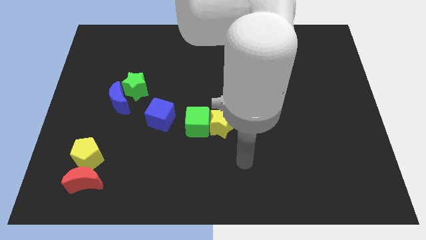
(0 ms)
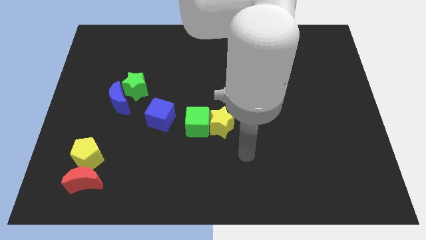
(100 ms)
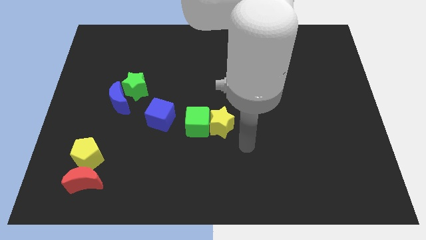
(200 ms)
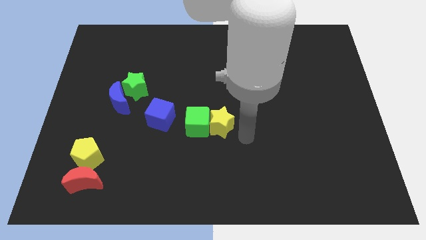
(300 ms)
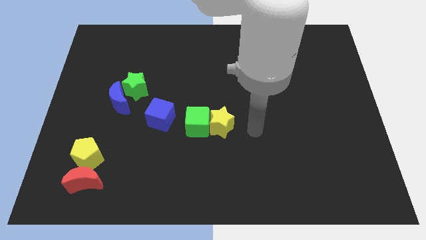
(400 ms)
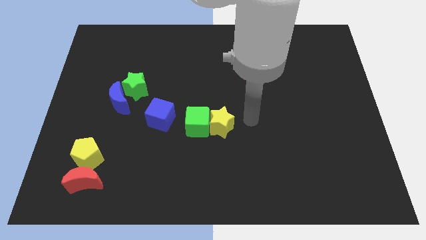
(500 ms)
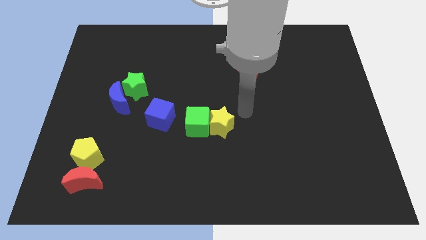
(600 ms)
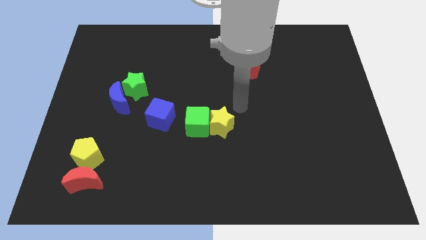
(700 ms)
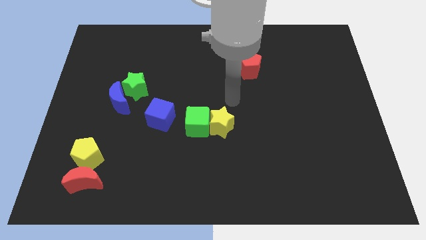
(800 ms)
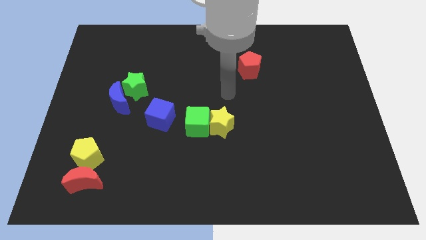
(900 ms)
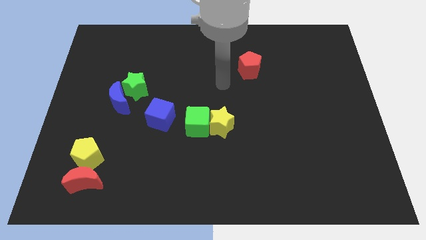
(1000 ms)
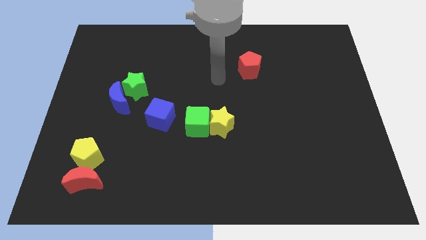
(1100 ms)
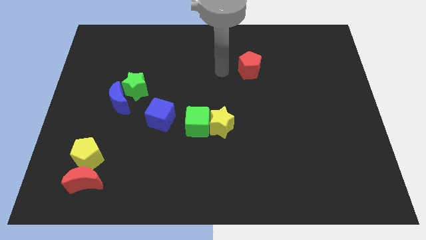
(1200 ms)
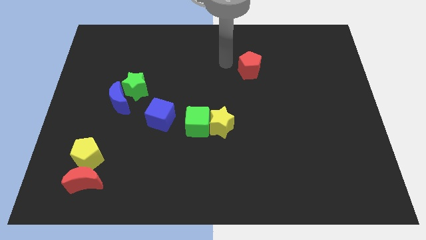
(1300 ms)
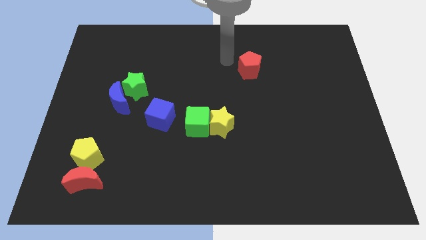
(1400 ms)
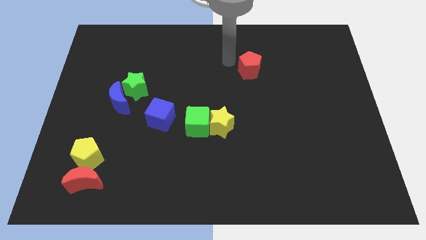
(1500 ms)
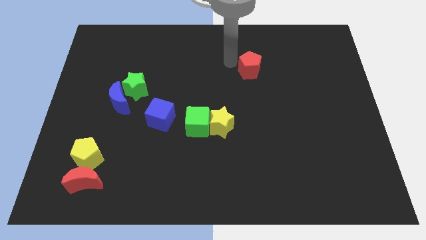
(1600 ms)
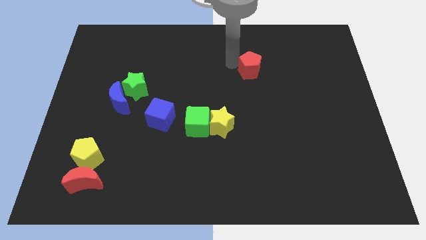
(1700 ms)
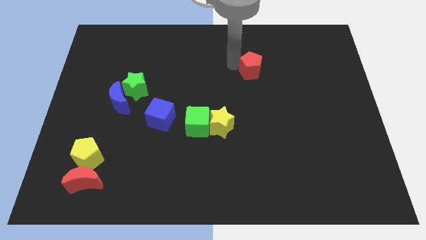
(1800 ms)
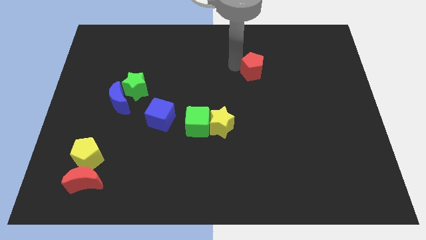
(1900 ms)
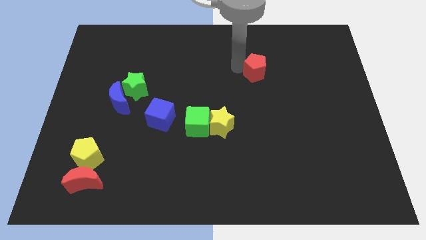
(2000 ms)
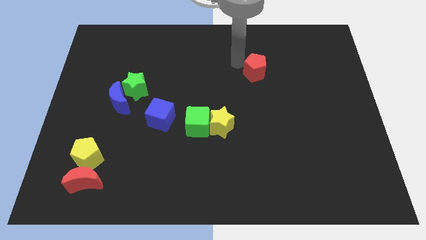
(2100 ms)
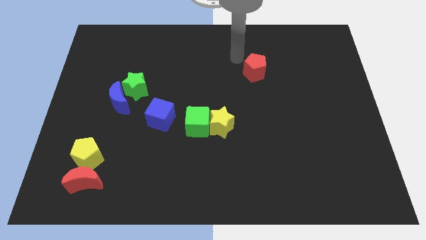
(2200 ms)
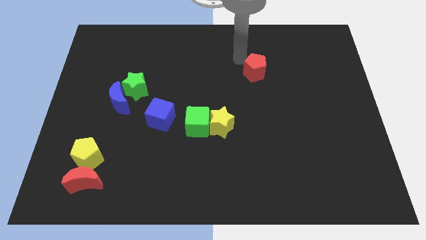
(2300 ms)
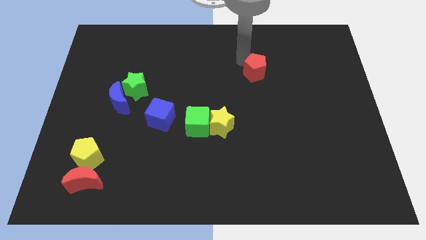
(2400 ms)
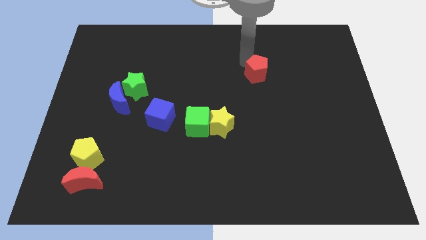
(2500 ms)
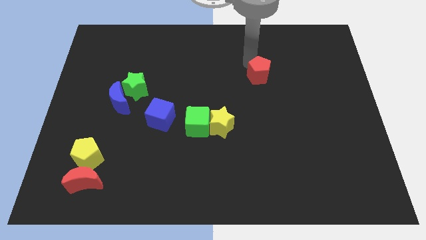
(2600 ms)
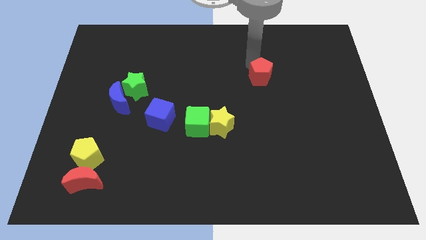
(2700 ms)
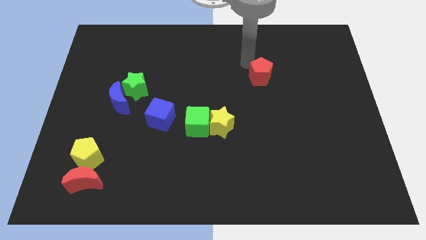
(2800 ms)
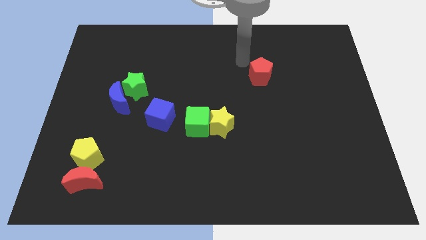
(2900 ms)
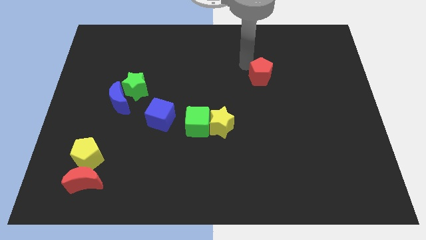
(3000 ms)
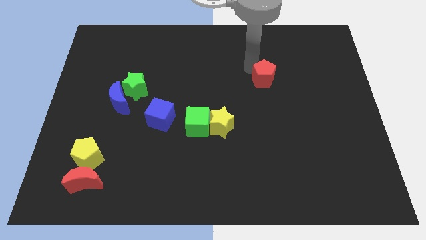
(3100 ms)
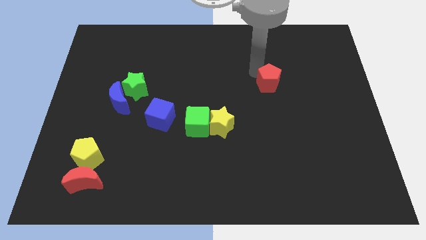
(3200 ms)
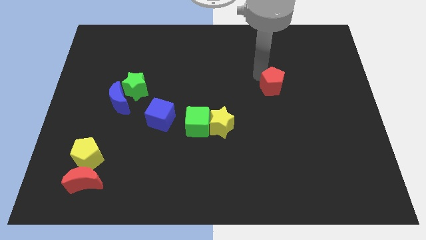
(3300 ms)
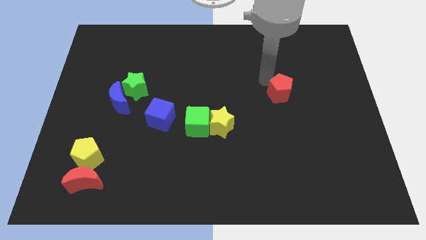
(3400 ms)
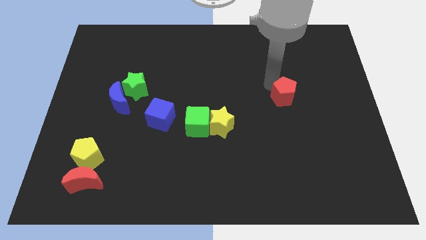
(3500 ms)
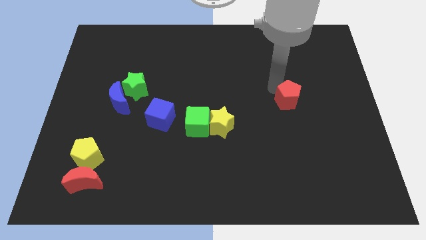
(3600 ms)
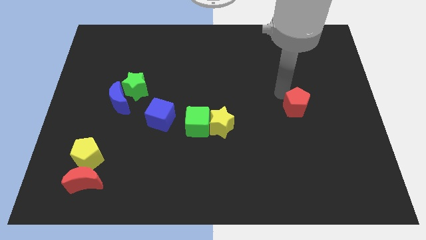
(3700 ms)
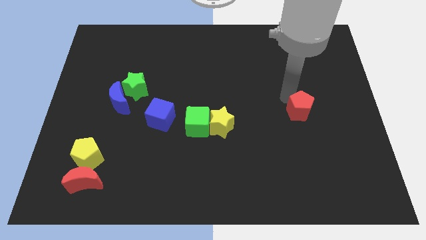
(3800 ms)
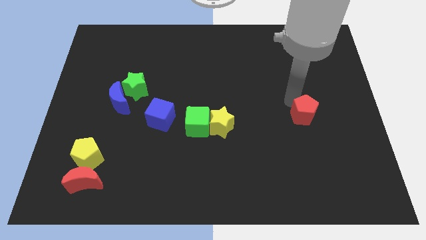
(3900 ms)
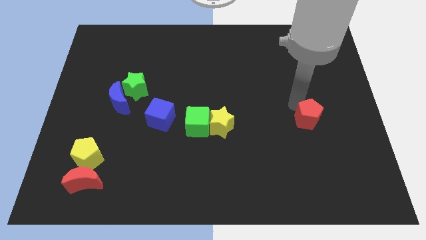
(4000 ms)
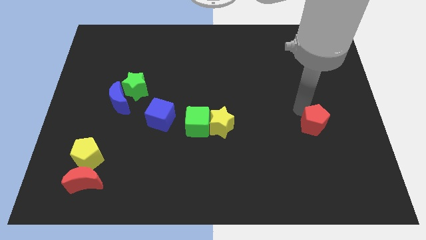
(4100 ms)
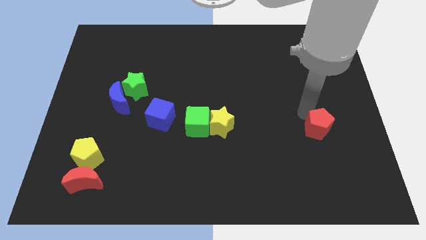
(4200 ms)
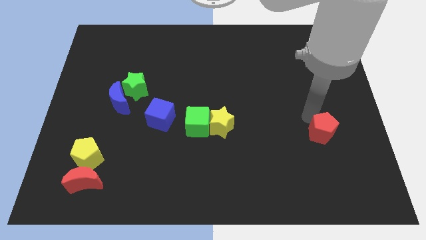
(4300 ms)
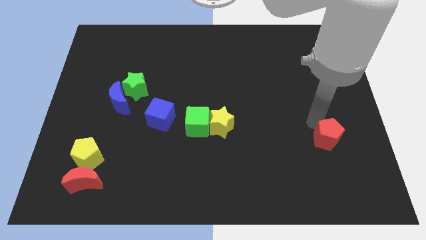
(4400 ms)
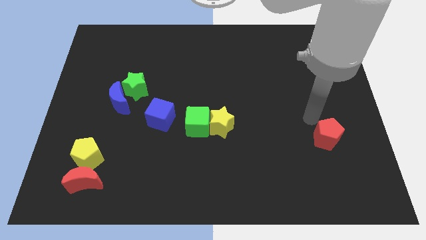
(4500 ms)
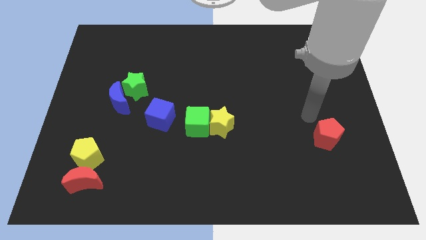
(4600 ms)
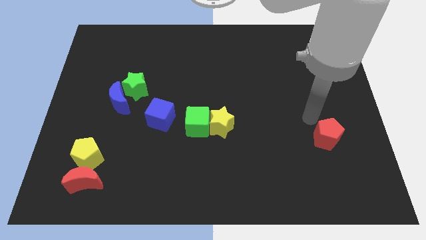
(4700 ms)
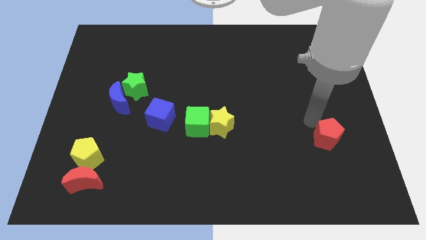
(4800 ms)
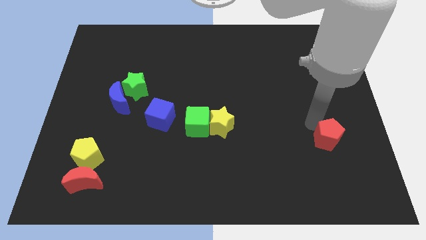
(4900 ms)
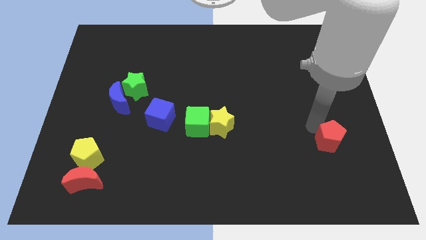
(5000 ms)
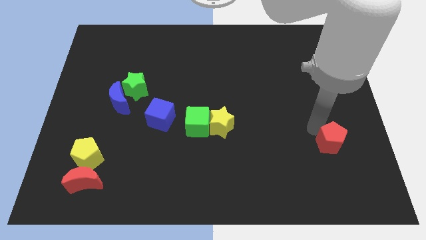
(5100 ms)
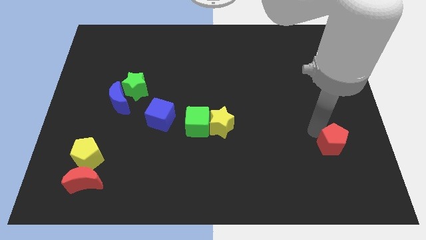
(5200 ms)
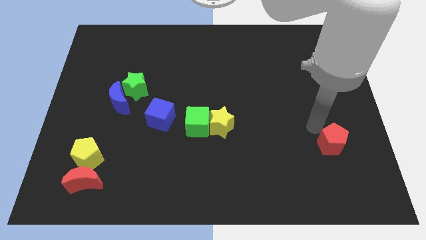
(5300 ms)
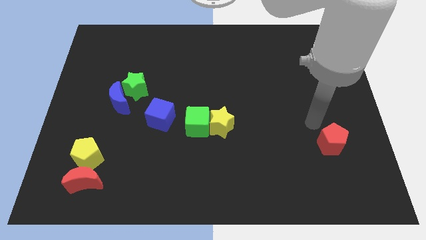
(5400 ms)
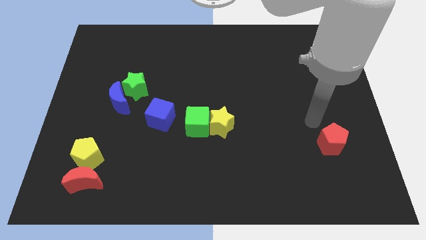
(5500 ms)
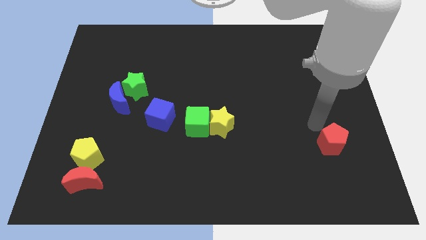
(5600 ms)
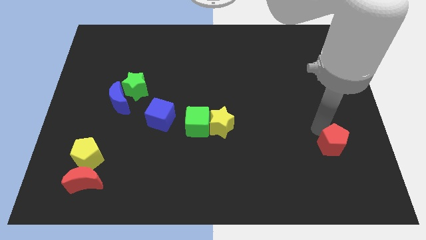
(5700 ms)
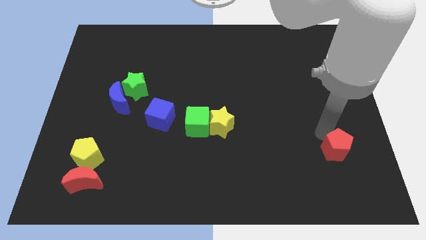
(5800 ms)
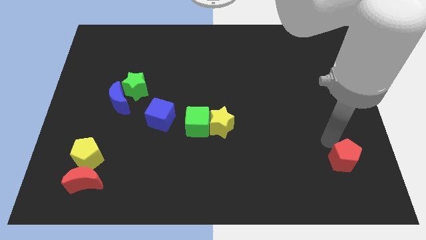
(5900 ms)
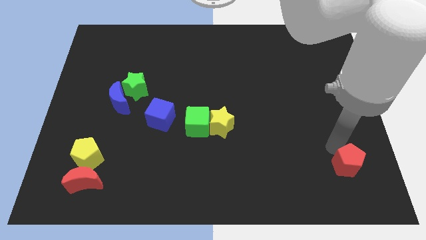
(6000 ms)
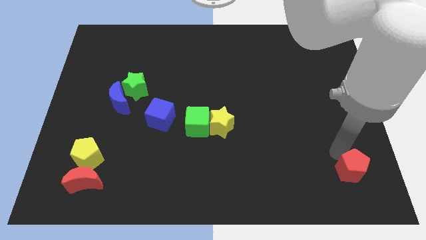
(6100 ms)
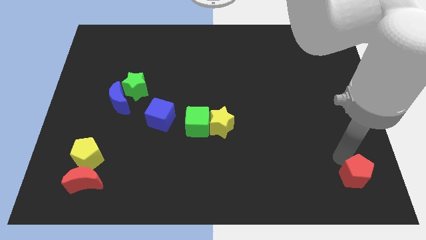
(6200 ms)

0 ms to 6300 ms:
push the red pentagon to the lower right corner
